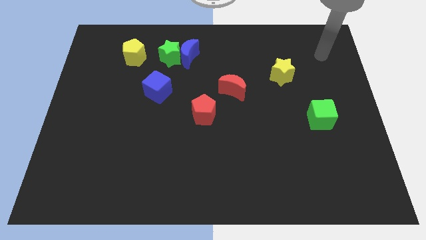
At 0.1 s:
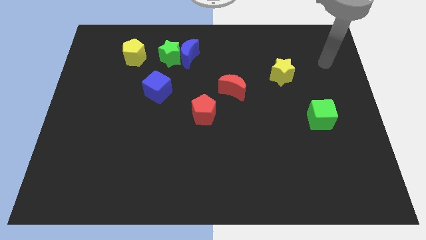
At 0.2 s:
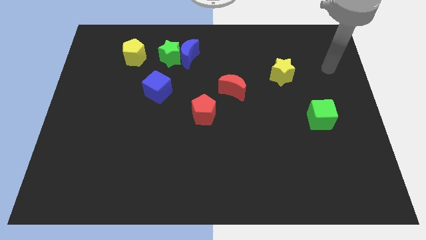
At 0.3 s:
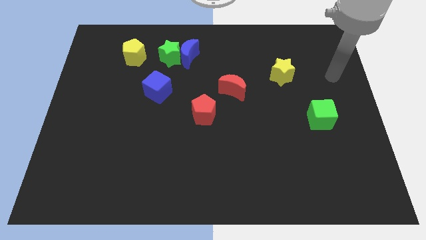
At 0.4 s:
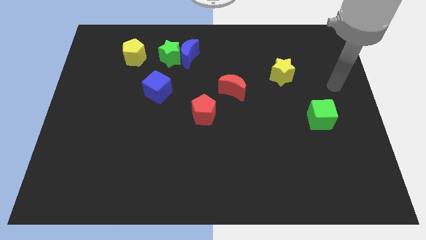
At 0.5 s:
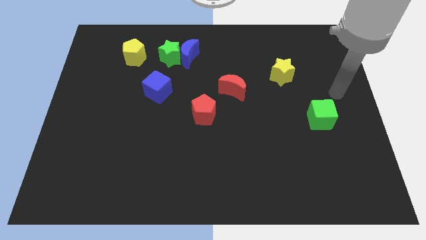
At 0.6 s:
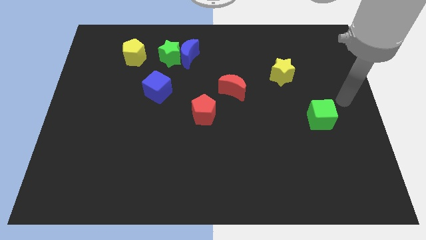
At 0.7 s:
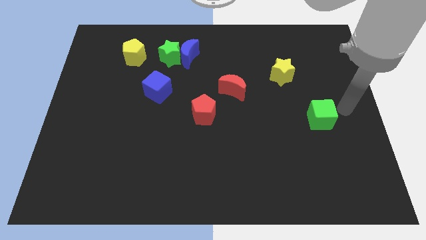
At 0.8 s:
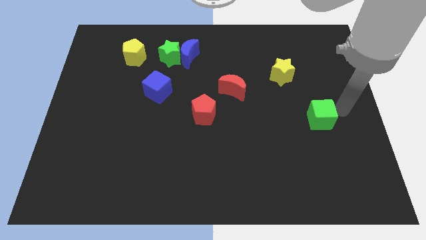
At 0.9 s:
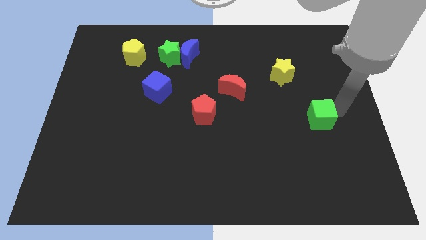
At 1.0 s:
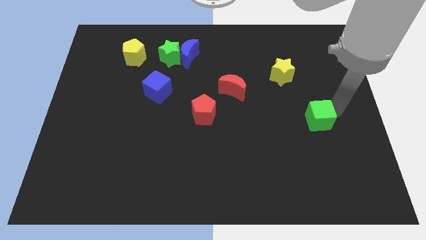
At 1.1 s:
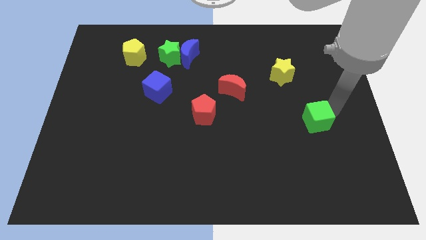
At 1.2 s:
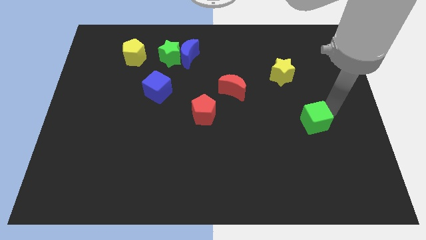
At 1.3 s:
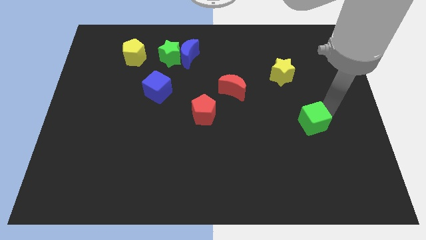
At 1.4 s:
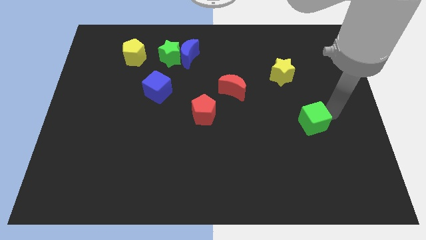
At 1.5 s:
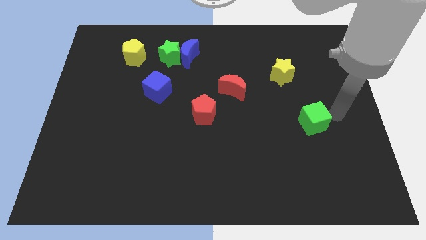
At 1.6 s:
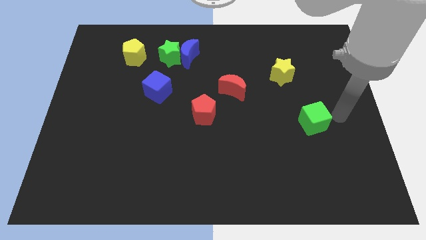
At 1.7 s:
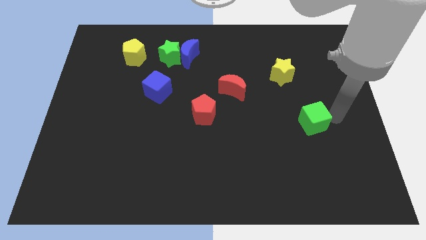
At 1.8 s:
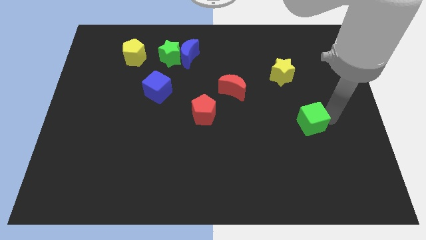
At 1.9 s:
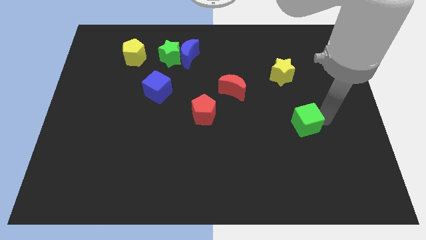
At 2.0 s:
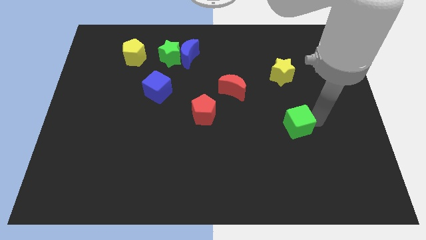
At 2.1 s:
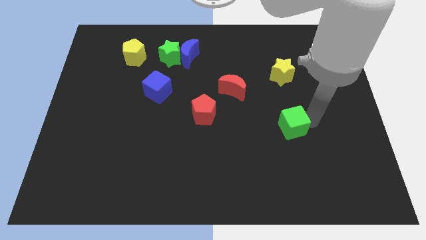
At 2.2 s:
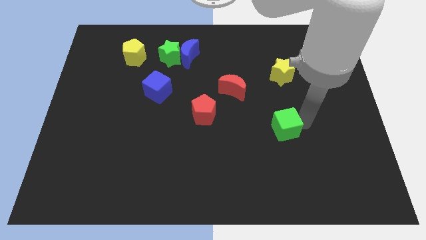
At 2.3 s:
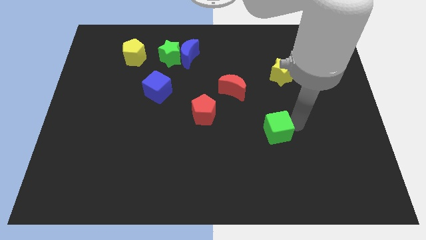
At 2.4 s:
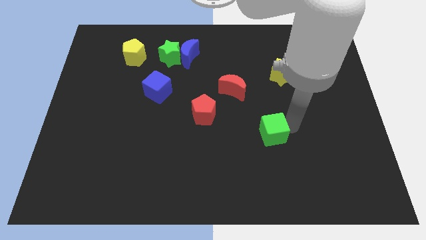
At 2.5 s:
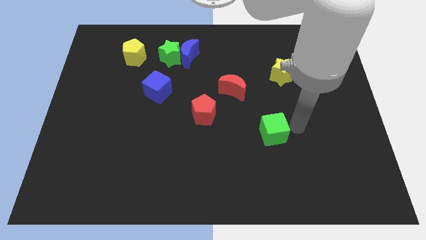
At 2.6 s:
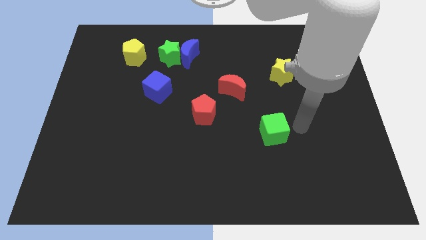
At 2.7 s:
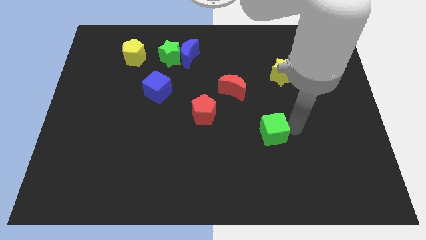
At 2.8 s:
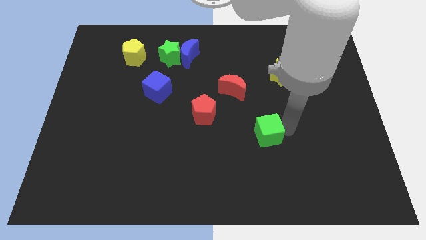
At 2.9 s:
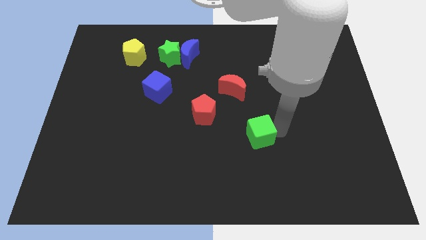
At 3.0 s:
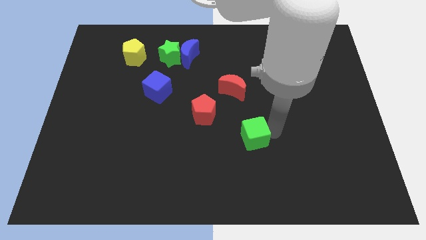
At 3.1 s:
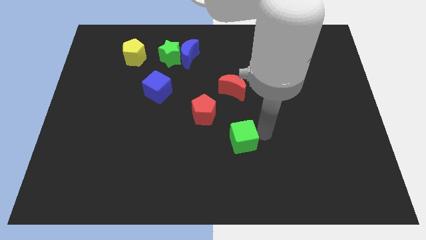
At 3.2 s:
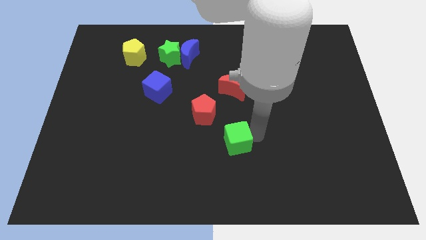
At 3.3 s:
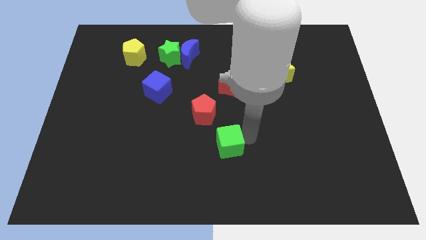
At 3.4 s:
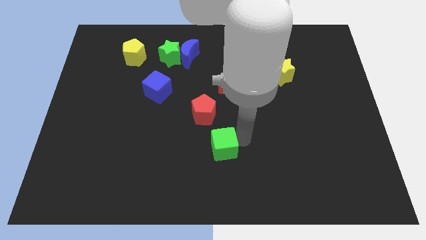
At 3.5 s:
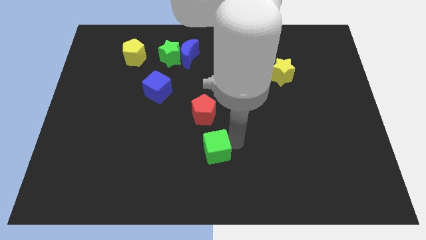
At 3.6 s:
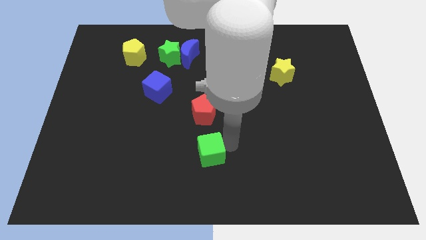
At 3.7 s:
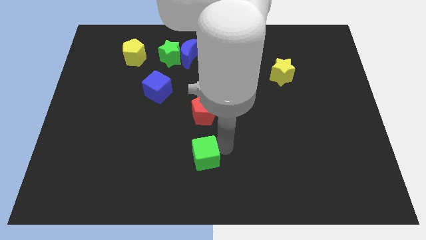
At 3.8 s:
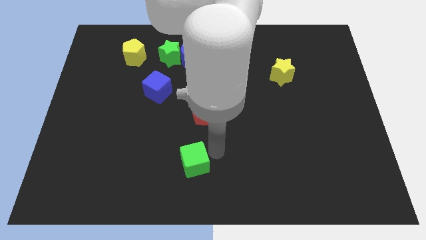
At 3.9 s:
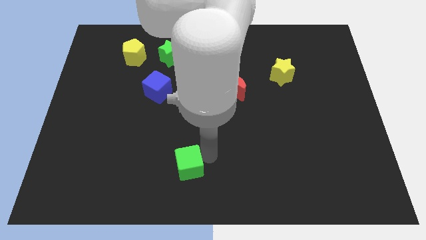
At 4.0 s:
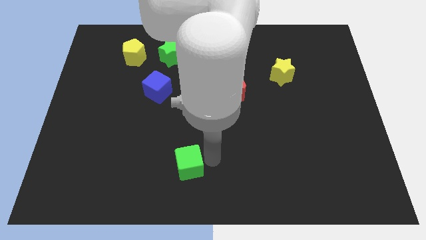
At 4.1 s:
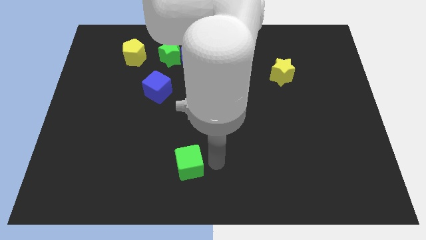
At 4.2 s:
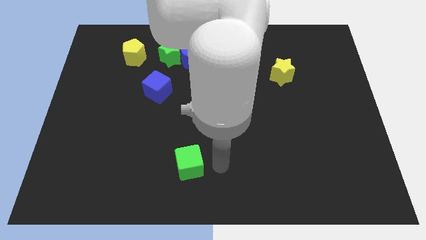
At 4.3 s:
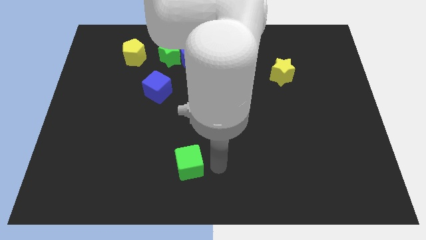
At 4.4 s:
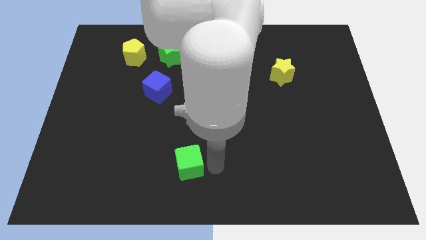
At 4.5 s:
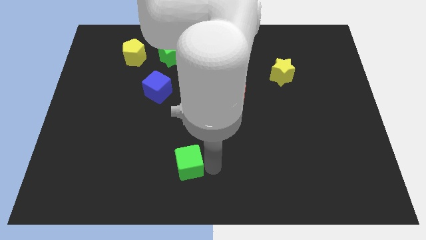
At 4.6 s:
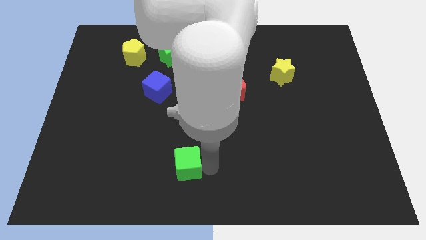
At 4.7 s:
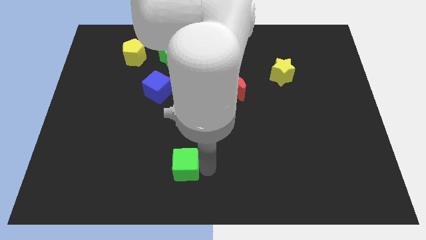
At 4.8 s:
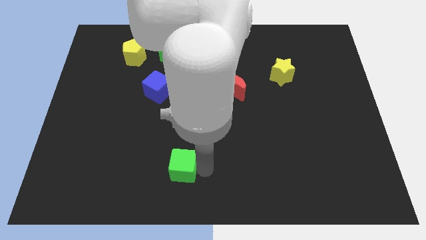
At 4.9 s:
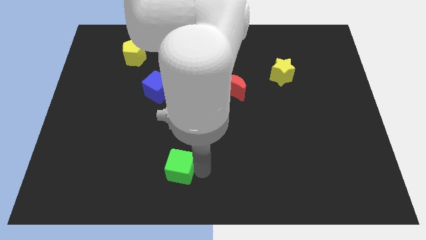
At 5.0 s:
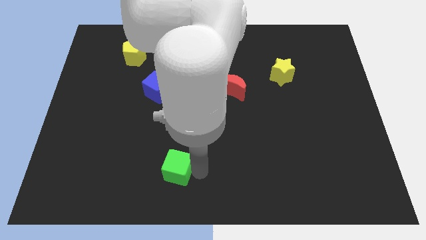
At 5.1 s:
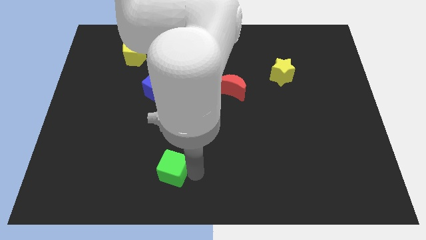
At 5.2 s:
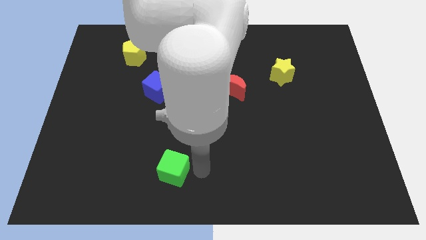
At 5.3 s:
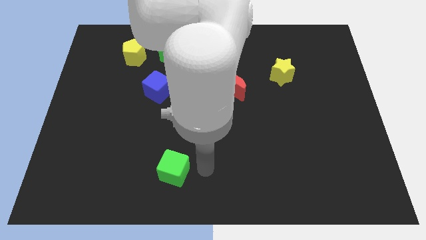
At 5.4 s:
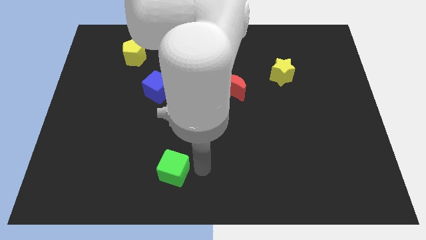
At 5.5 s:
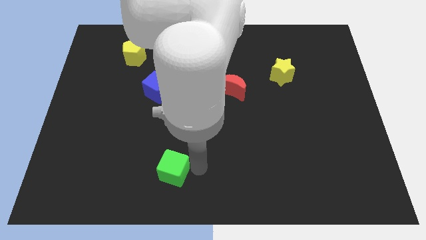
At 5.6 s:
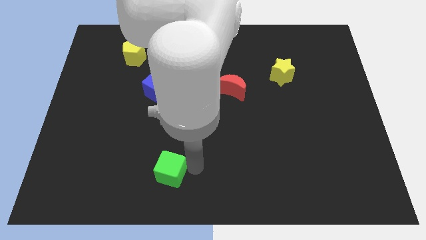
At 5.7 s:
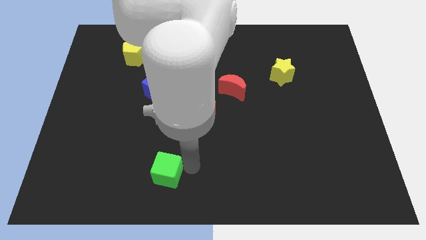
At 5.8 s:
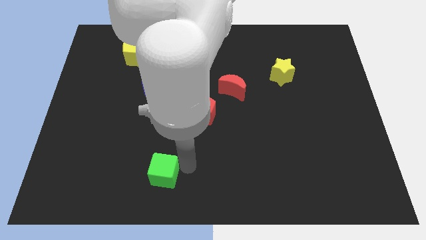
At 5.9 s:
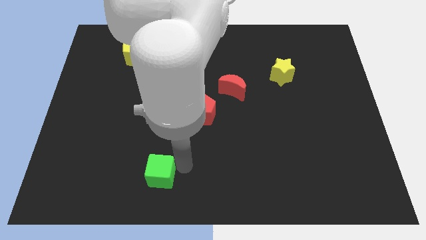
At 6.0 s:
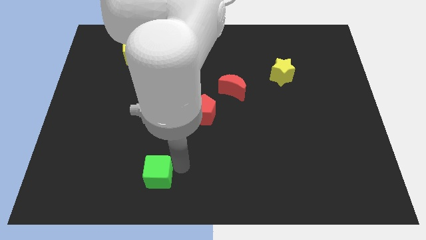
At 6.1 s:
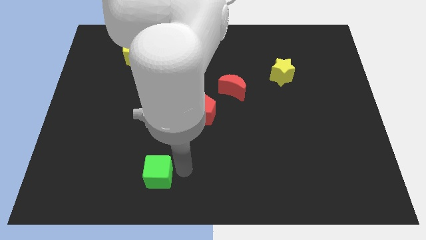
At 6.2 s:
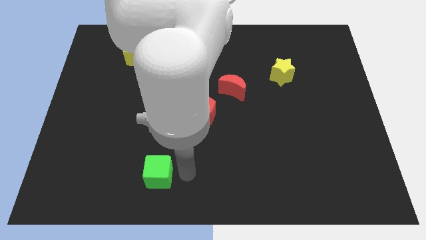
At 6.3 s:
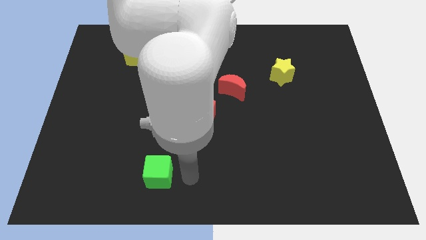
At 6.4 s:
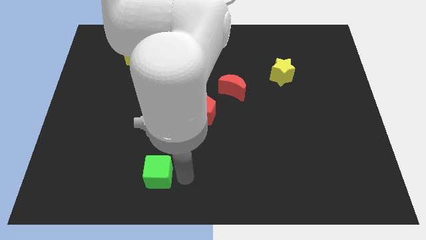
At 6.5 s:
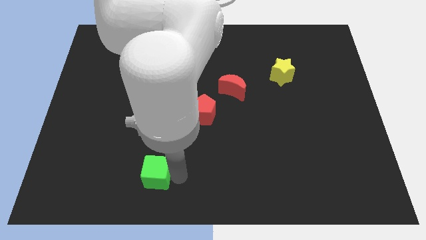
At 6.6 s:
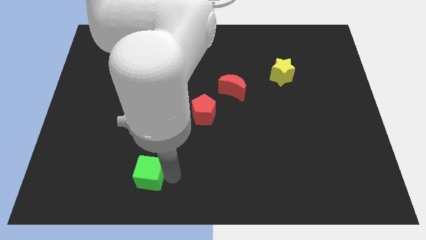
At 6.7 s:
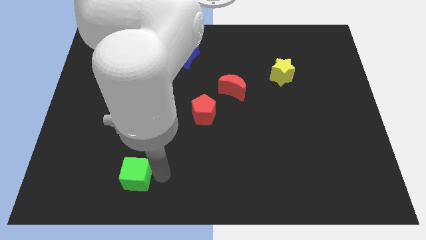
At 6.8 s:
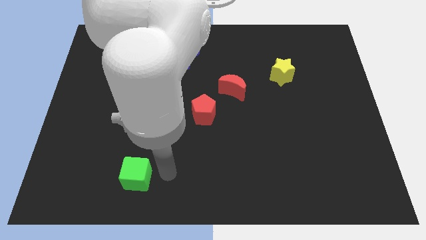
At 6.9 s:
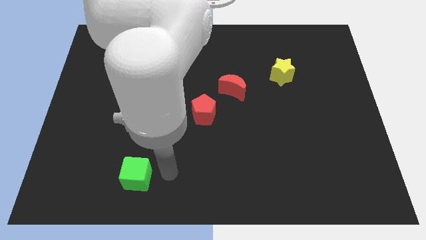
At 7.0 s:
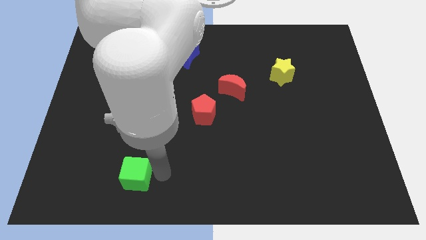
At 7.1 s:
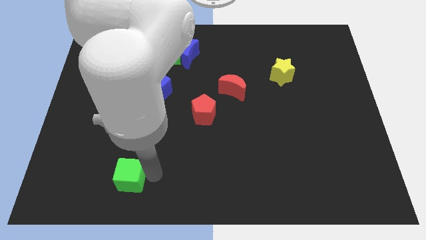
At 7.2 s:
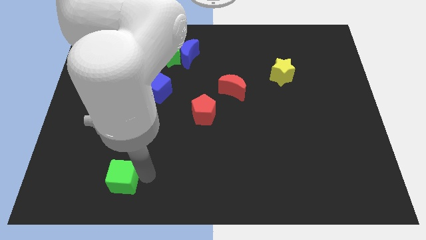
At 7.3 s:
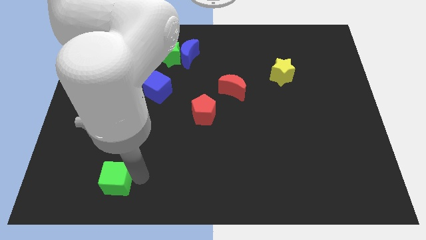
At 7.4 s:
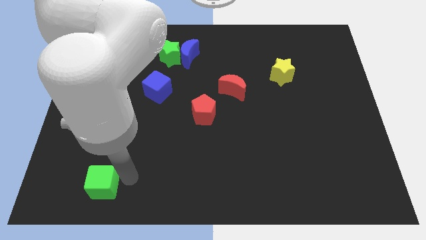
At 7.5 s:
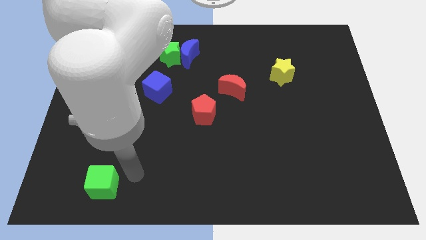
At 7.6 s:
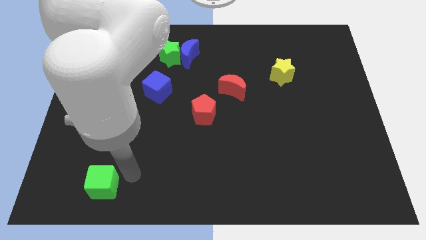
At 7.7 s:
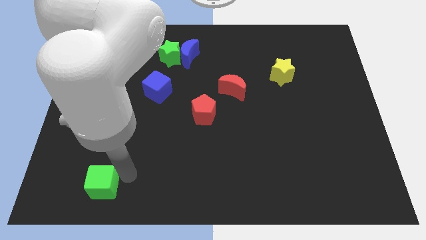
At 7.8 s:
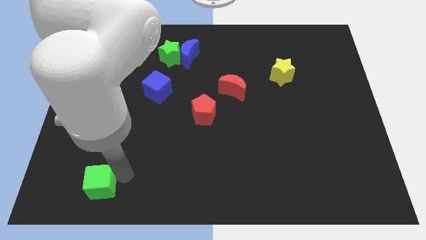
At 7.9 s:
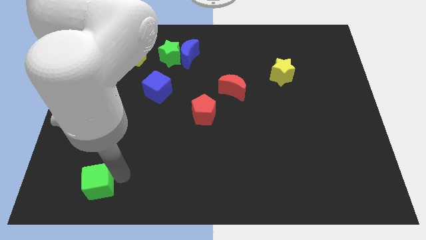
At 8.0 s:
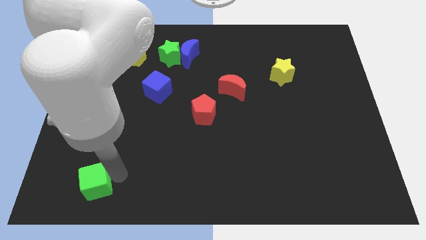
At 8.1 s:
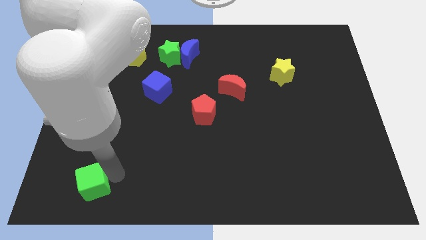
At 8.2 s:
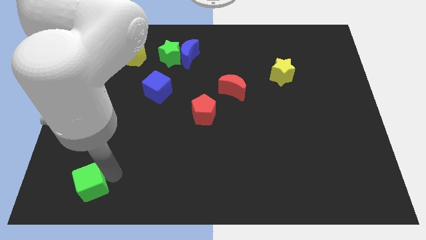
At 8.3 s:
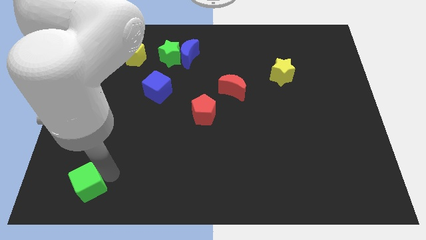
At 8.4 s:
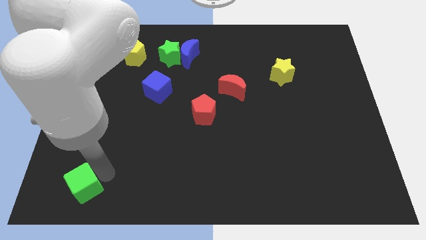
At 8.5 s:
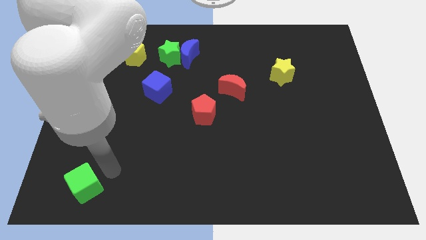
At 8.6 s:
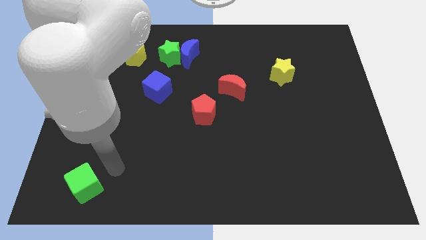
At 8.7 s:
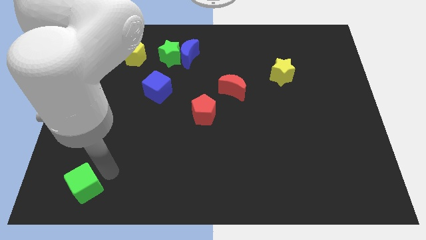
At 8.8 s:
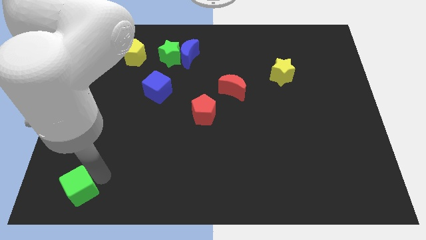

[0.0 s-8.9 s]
put the green cube to the lower left corner
